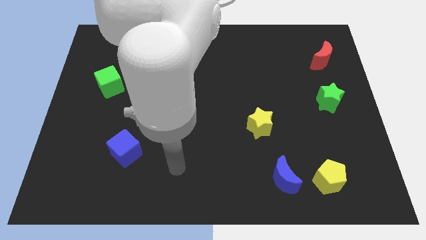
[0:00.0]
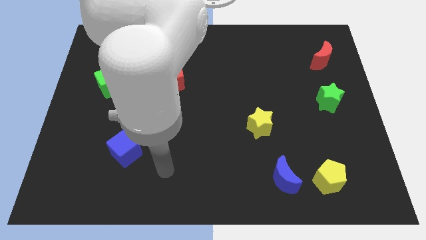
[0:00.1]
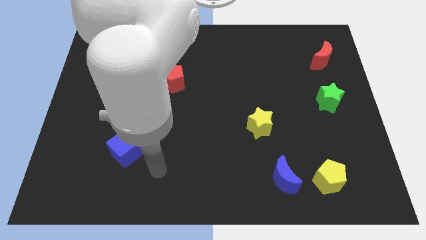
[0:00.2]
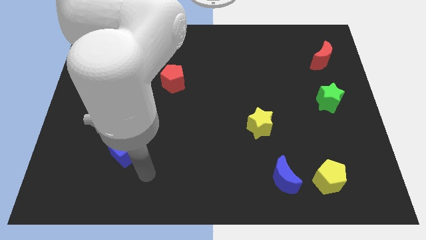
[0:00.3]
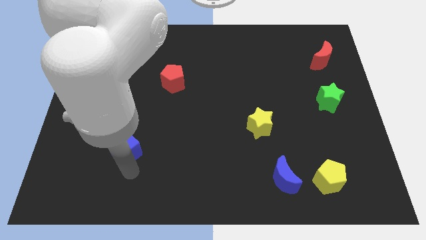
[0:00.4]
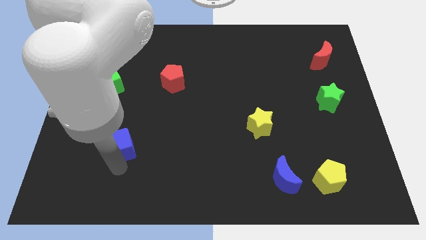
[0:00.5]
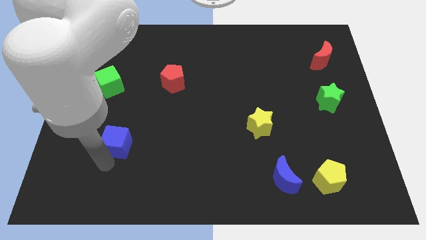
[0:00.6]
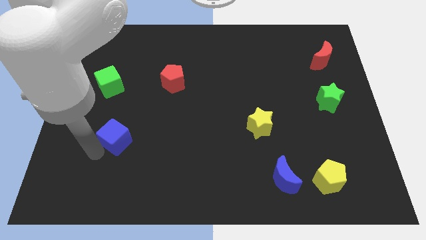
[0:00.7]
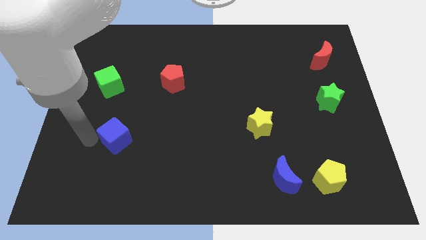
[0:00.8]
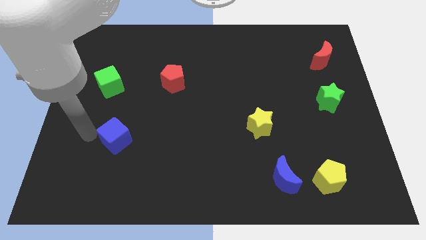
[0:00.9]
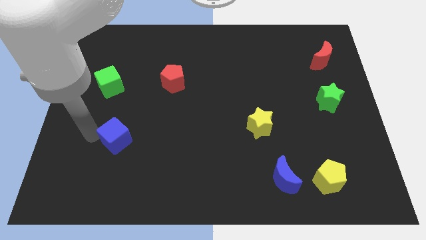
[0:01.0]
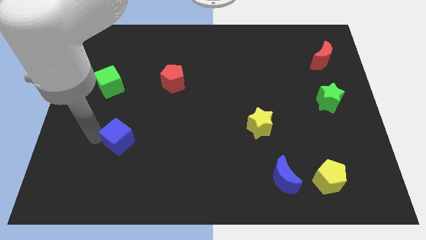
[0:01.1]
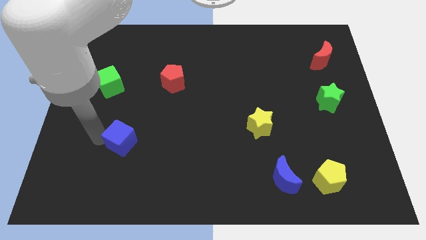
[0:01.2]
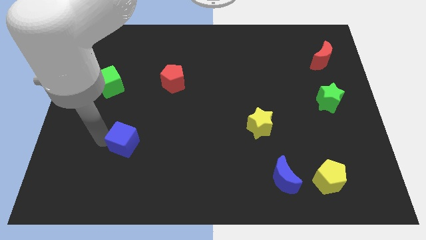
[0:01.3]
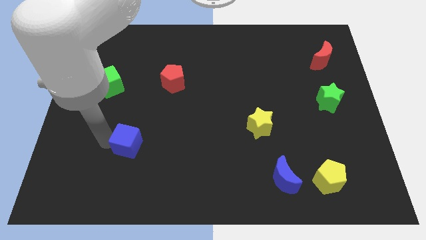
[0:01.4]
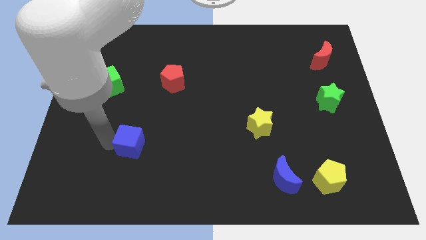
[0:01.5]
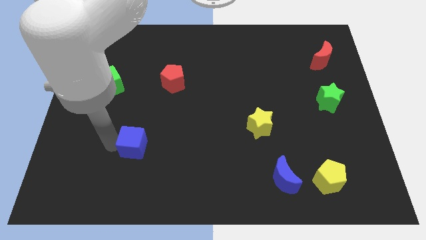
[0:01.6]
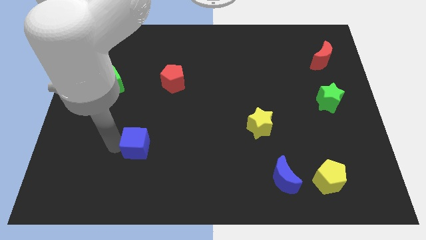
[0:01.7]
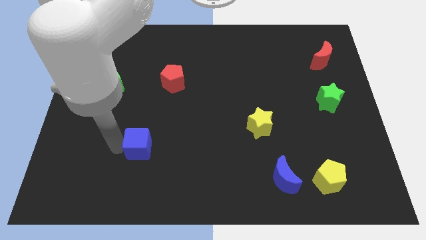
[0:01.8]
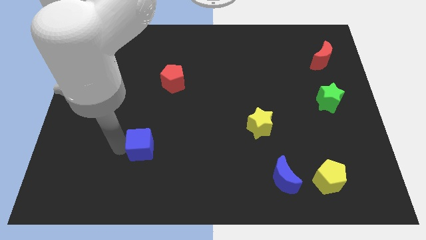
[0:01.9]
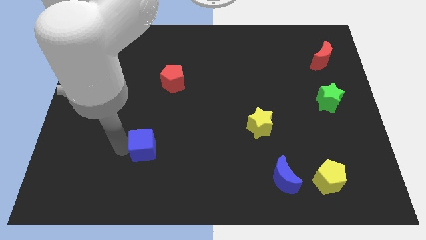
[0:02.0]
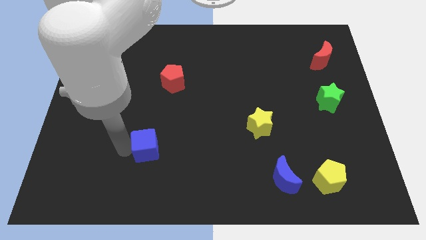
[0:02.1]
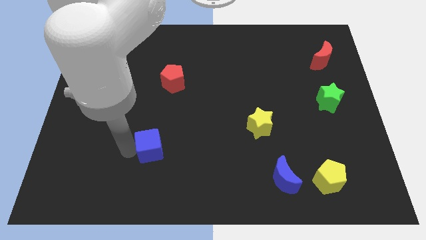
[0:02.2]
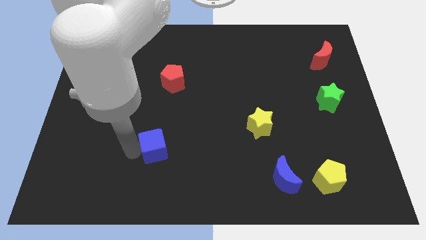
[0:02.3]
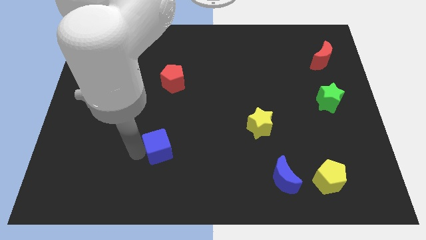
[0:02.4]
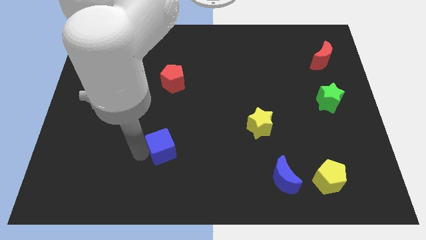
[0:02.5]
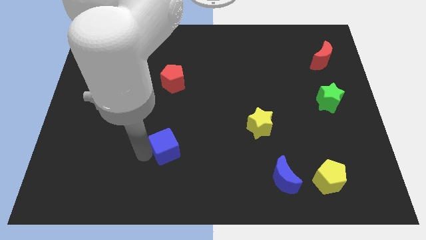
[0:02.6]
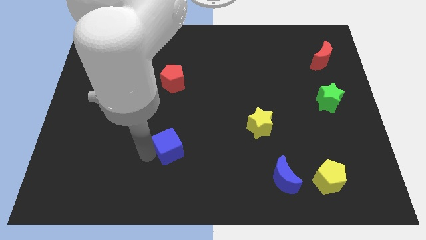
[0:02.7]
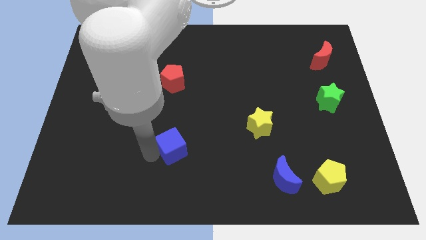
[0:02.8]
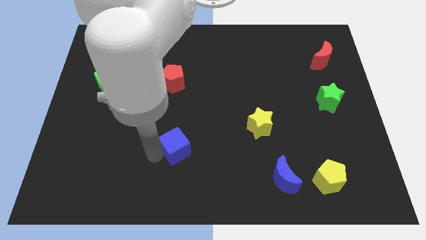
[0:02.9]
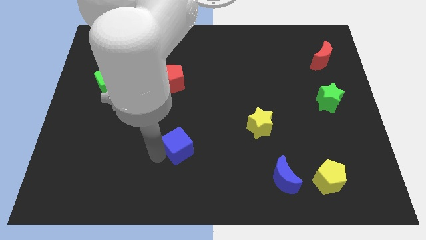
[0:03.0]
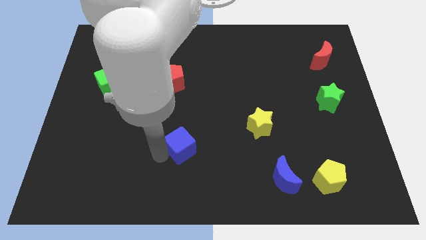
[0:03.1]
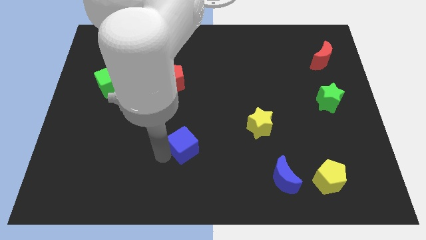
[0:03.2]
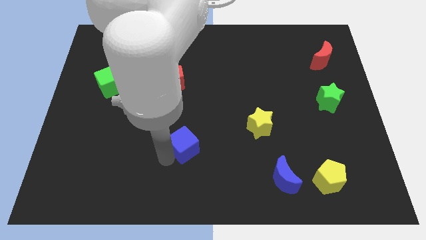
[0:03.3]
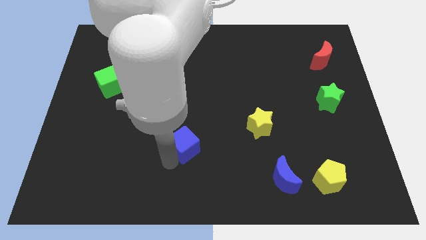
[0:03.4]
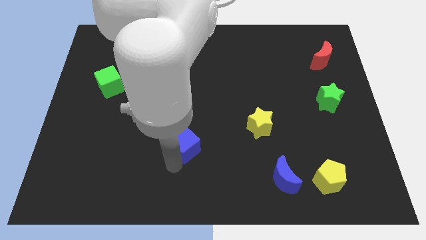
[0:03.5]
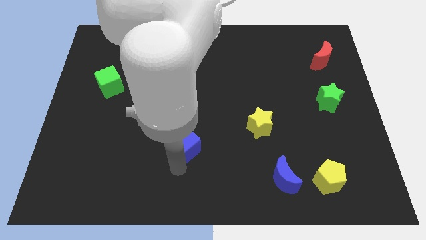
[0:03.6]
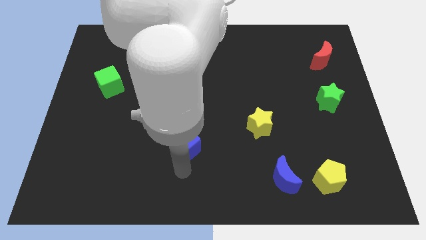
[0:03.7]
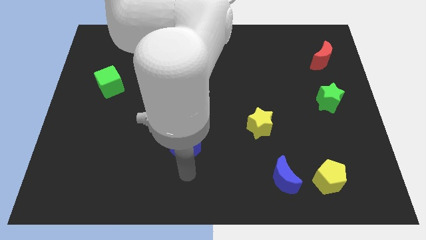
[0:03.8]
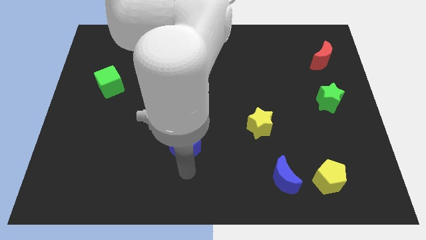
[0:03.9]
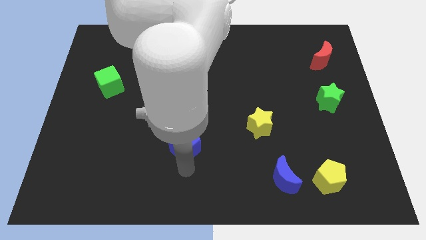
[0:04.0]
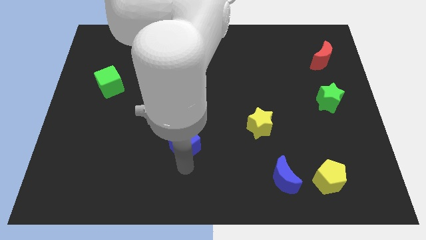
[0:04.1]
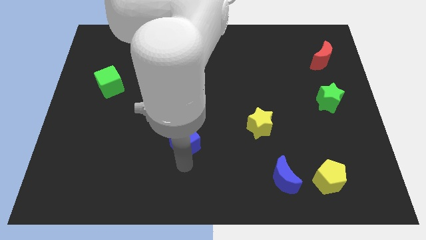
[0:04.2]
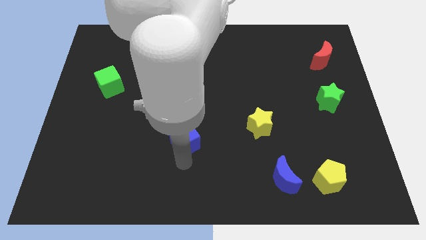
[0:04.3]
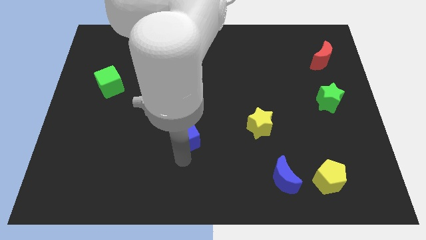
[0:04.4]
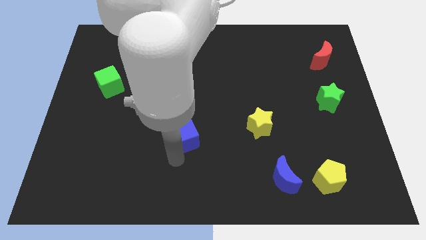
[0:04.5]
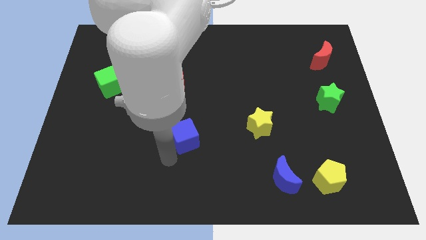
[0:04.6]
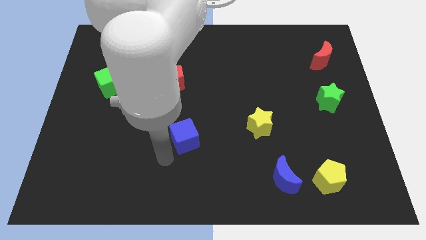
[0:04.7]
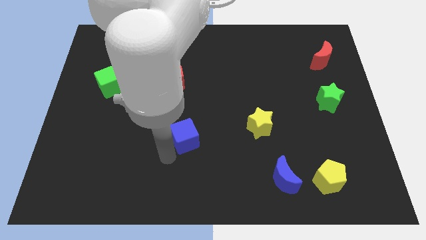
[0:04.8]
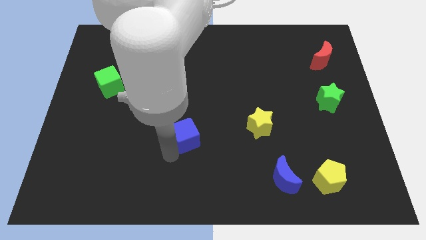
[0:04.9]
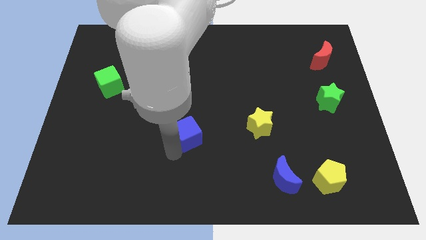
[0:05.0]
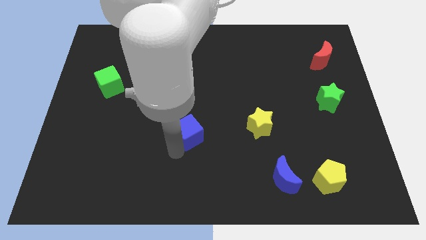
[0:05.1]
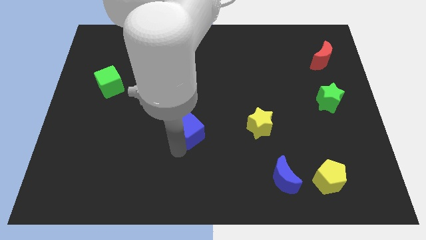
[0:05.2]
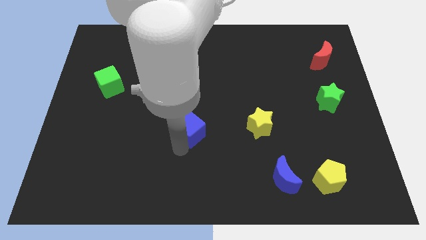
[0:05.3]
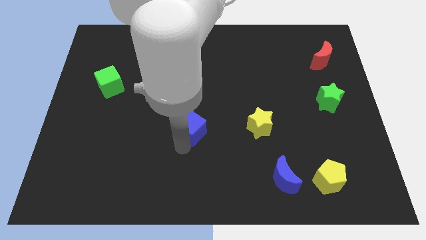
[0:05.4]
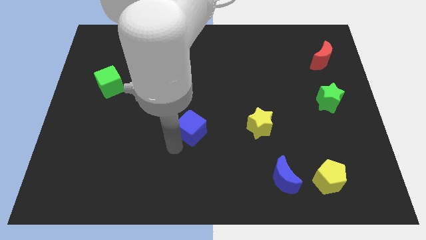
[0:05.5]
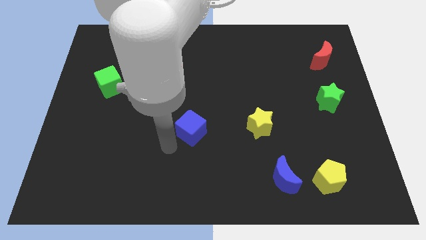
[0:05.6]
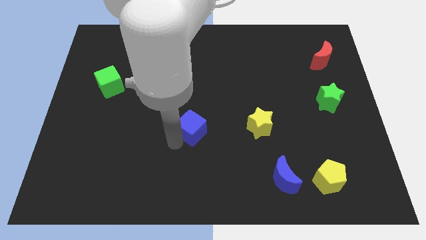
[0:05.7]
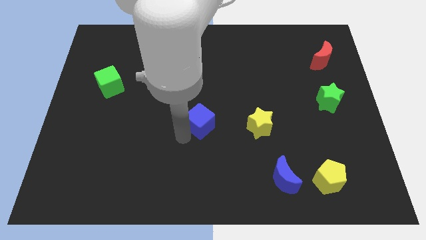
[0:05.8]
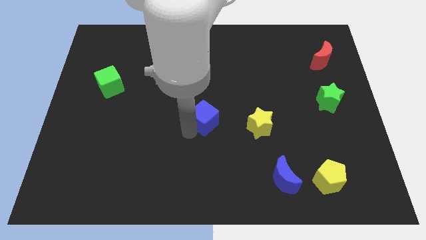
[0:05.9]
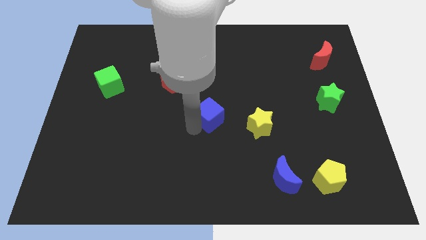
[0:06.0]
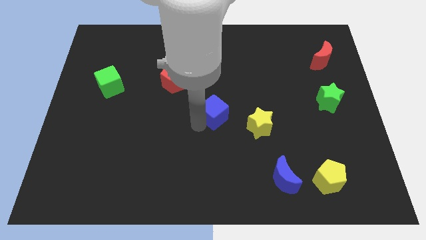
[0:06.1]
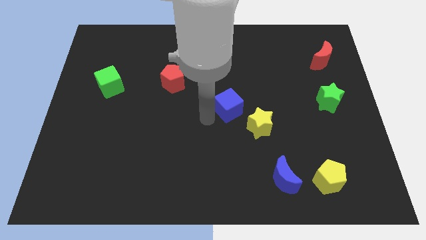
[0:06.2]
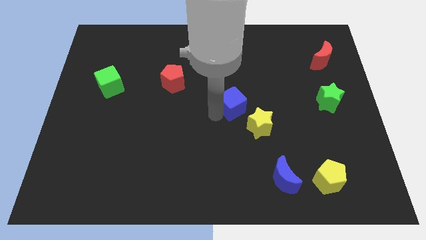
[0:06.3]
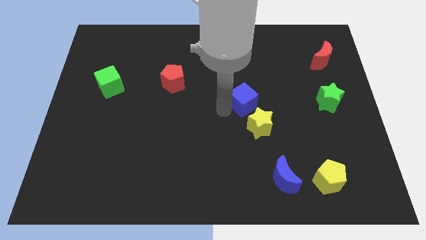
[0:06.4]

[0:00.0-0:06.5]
slide the blue cube above the yellow star

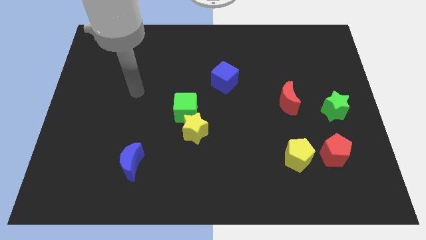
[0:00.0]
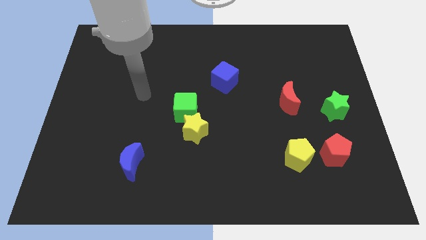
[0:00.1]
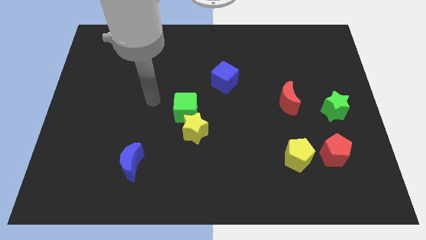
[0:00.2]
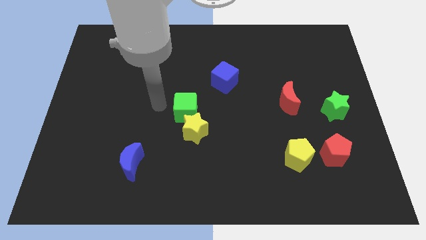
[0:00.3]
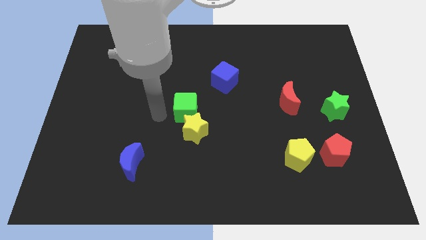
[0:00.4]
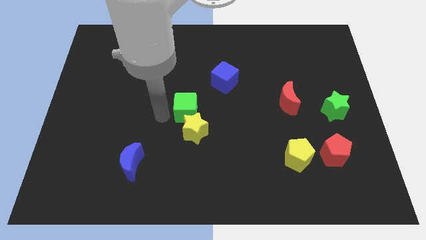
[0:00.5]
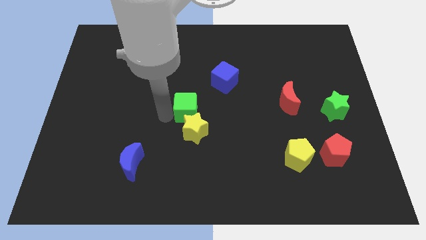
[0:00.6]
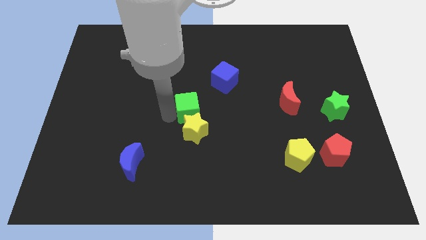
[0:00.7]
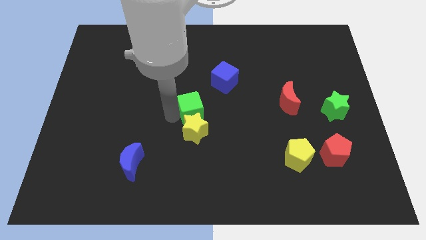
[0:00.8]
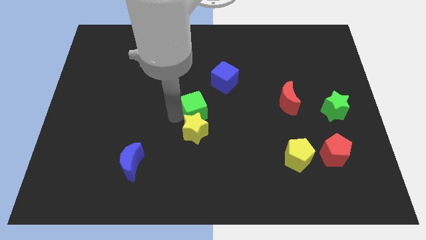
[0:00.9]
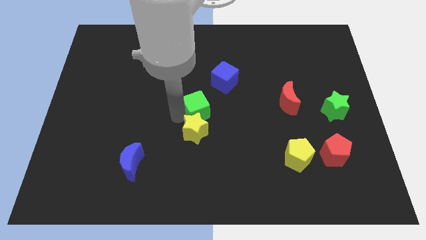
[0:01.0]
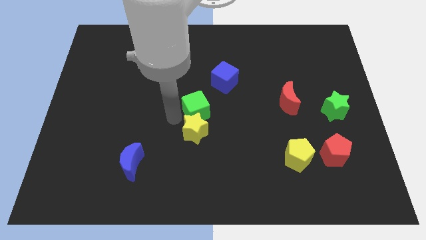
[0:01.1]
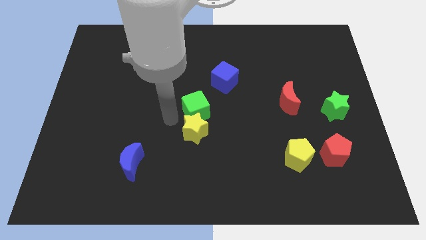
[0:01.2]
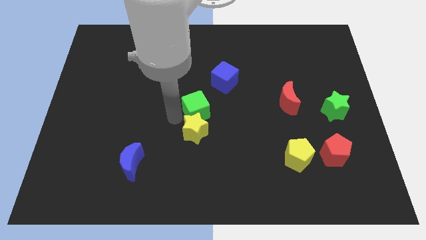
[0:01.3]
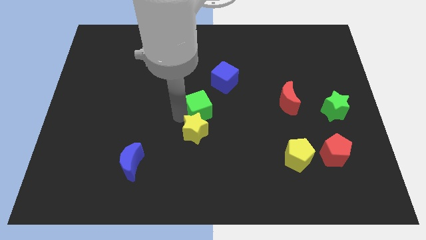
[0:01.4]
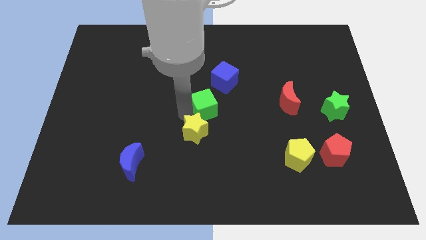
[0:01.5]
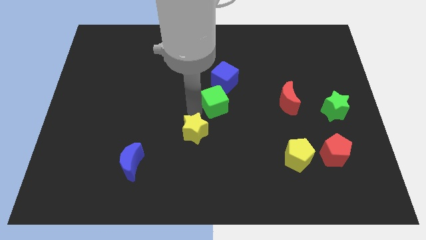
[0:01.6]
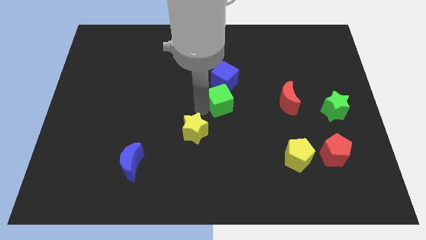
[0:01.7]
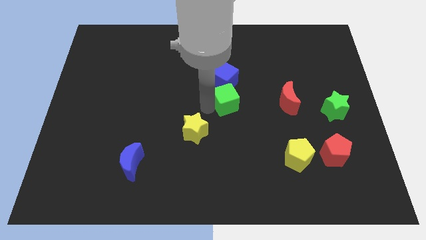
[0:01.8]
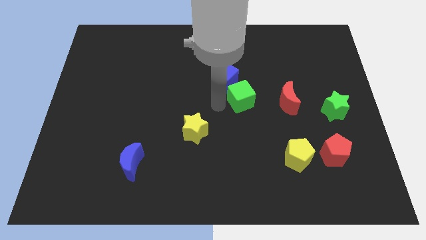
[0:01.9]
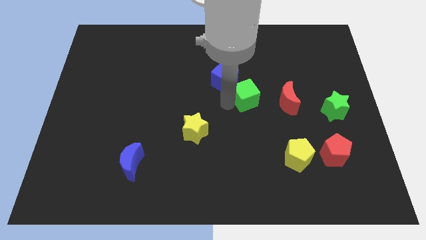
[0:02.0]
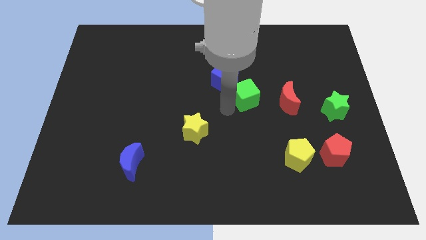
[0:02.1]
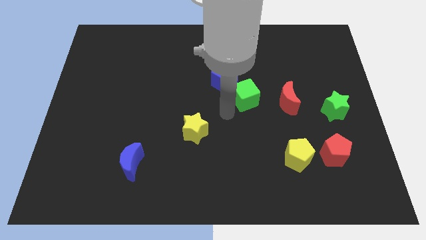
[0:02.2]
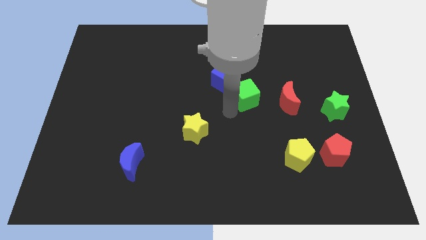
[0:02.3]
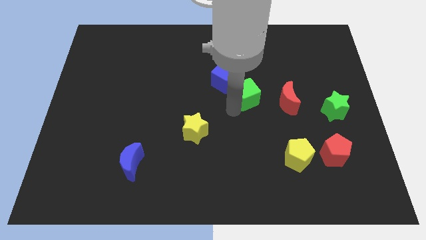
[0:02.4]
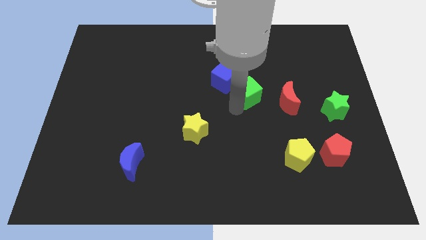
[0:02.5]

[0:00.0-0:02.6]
move the green cube to the right side of the blue cube
